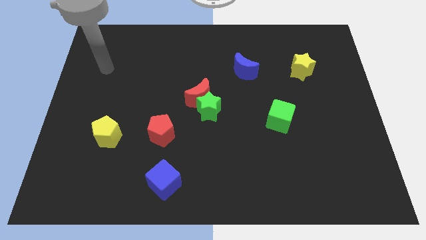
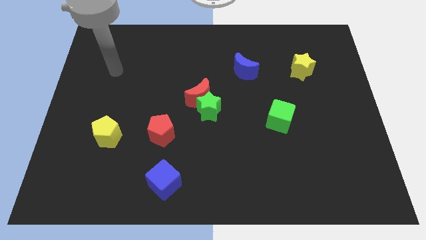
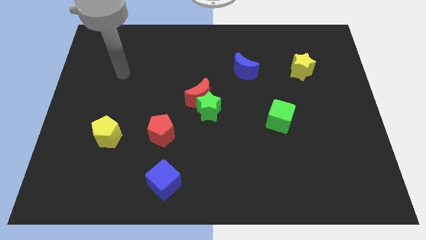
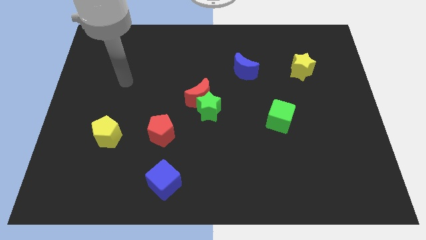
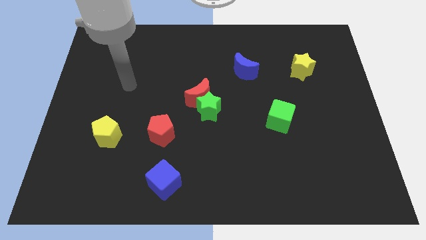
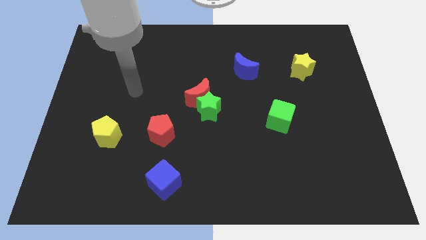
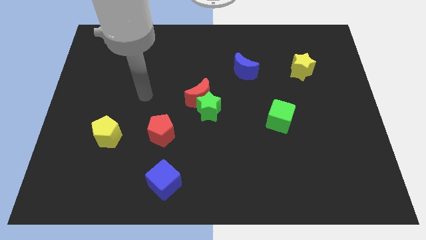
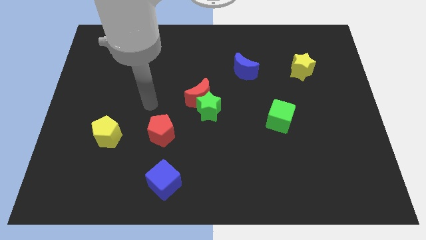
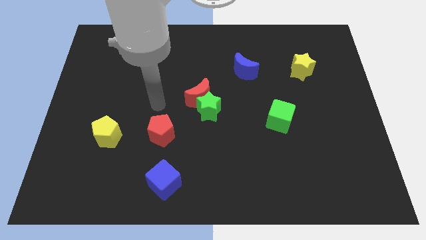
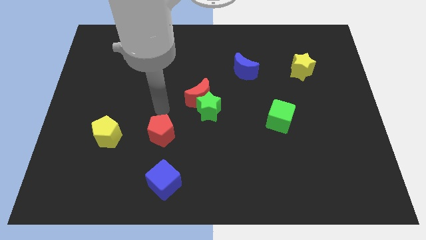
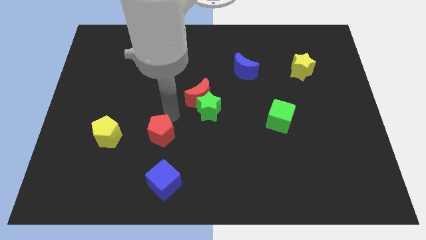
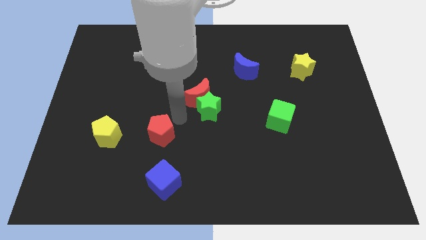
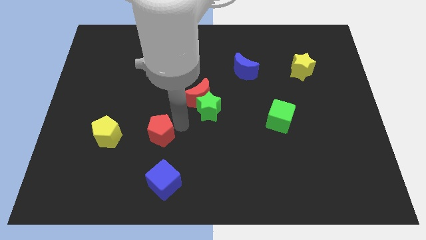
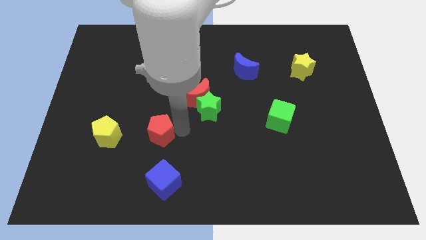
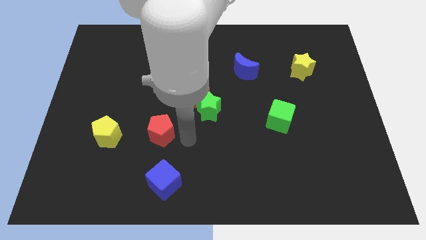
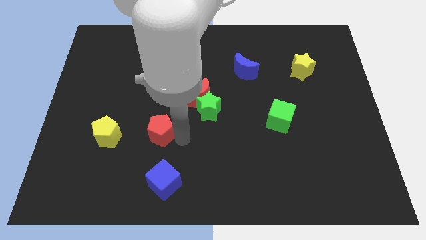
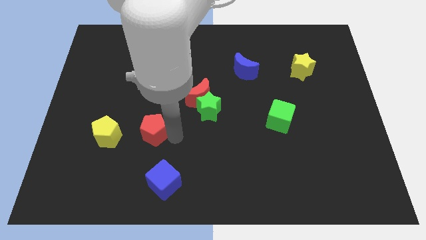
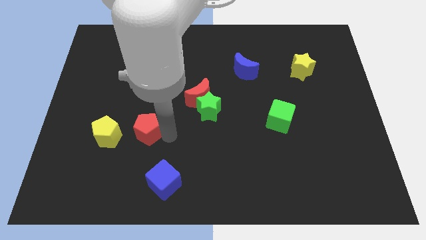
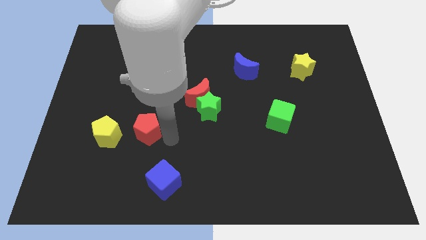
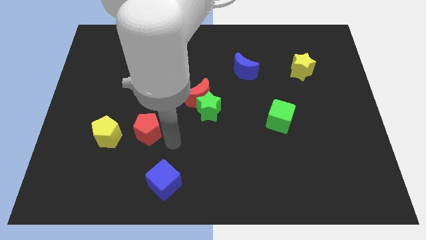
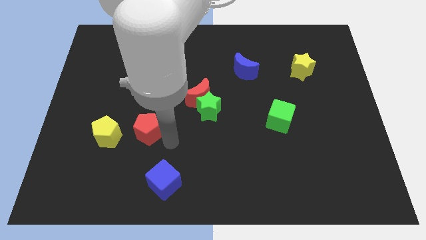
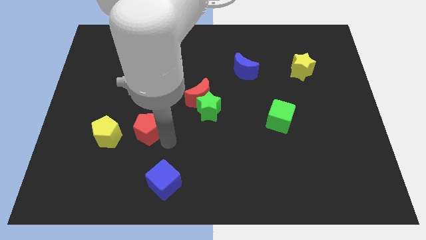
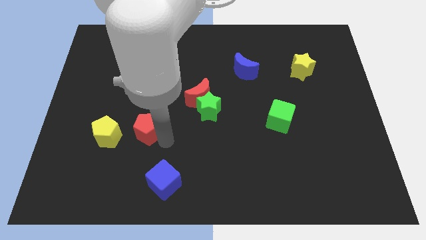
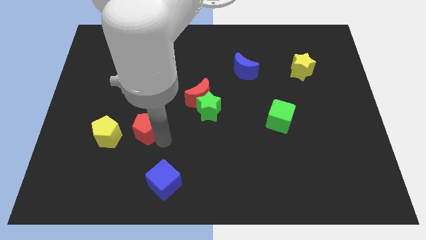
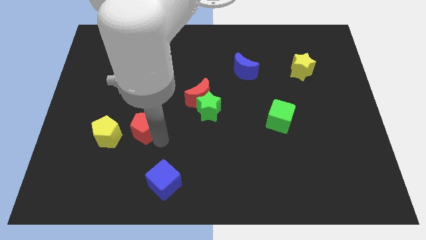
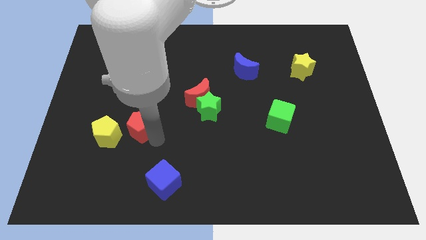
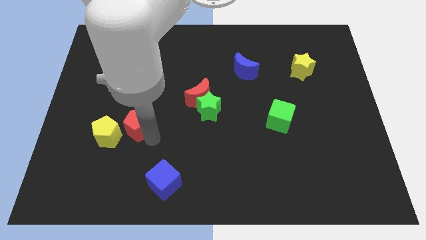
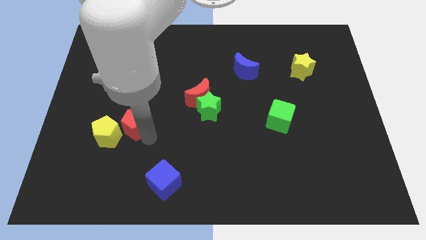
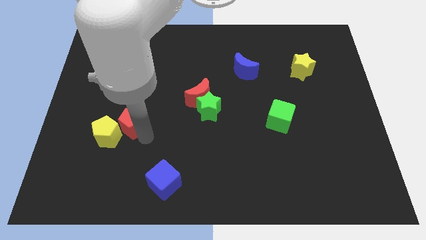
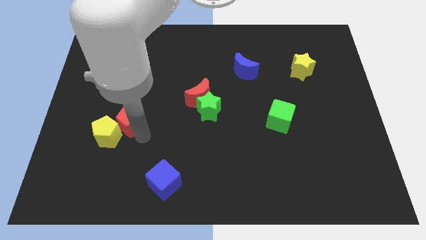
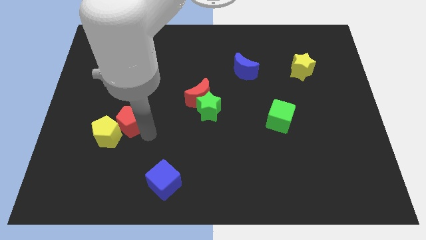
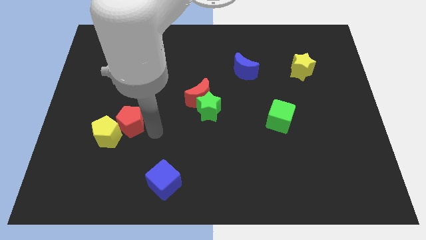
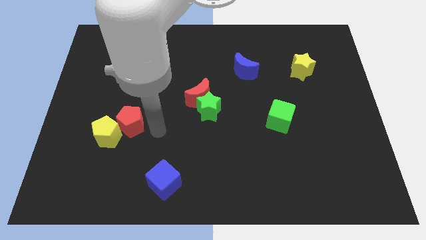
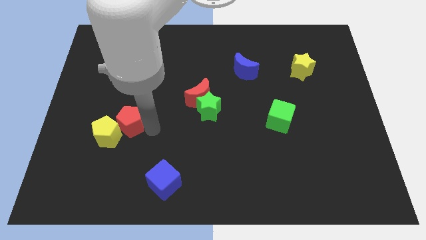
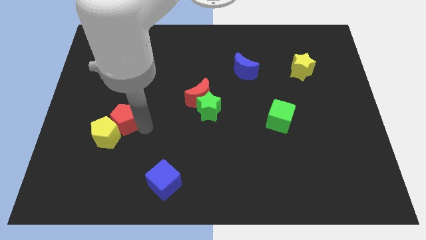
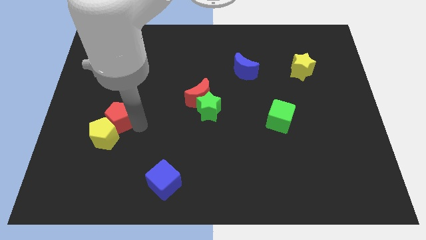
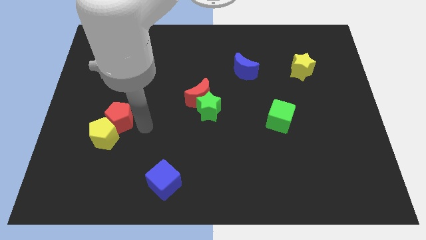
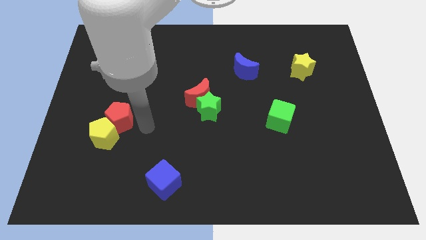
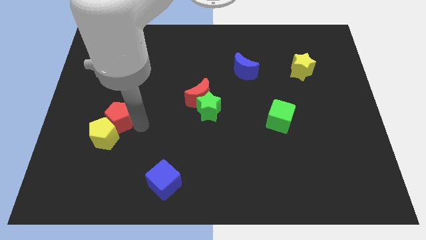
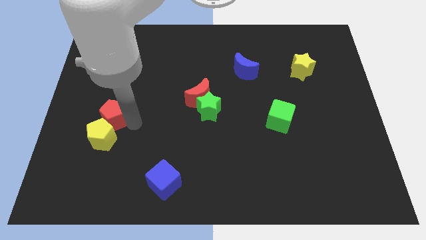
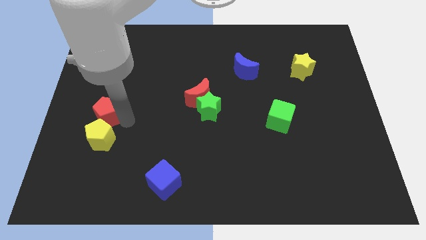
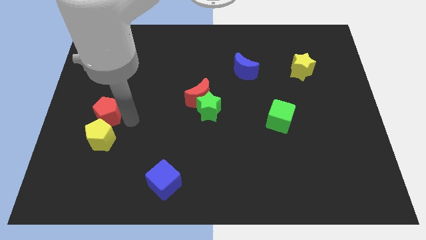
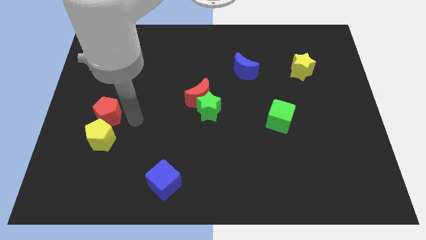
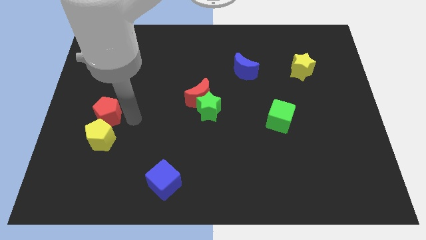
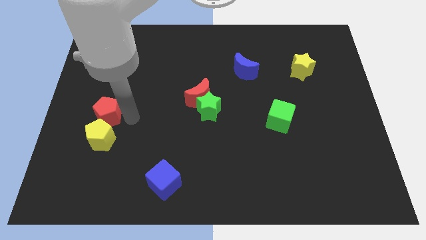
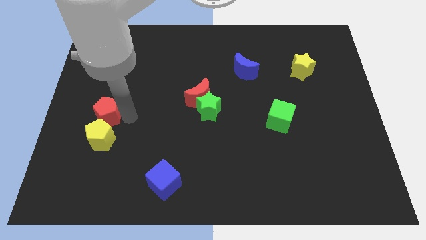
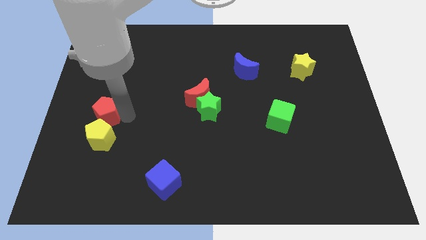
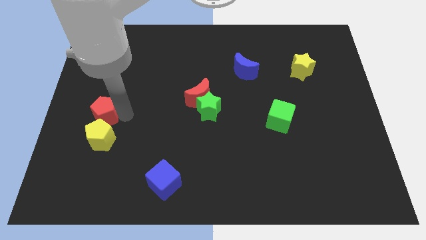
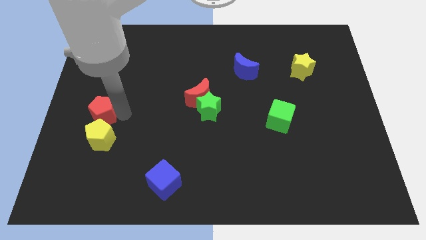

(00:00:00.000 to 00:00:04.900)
slide the red pentagon to the left side of the board

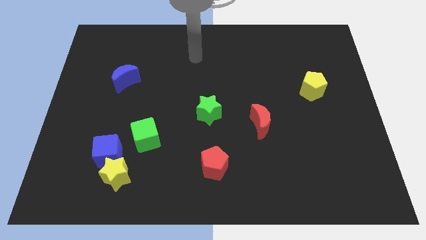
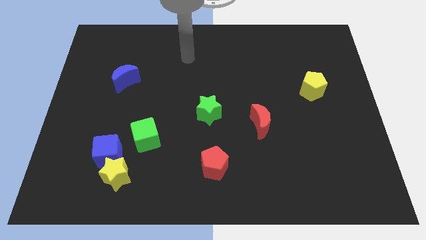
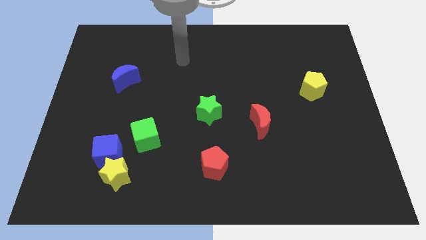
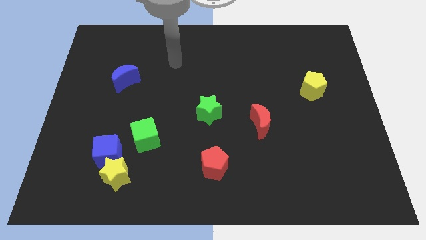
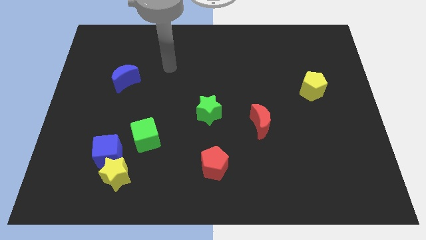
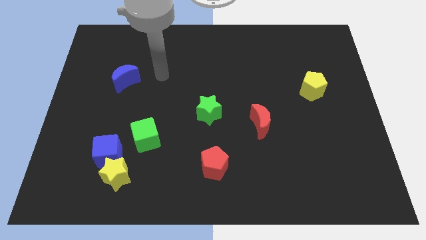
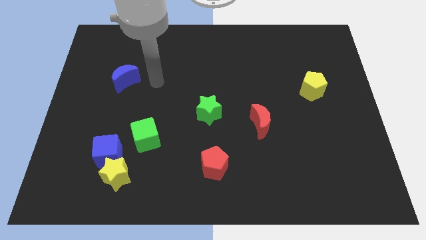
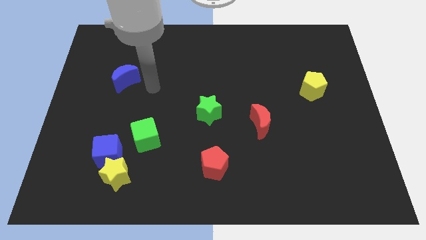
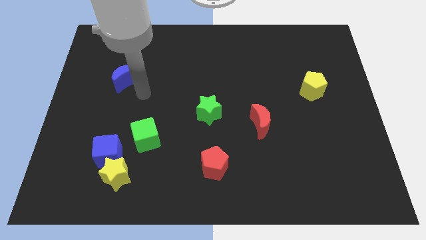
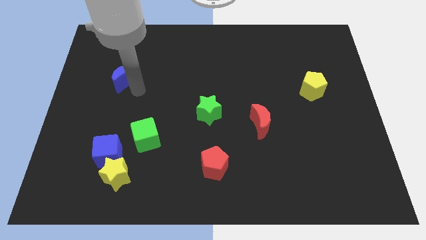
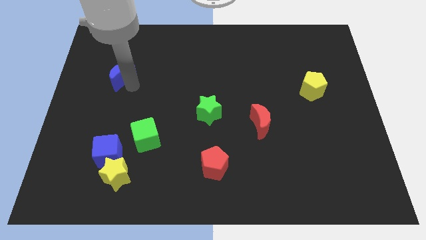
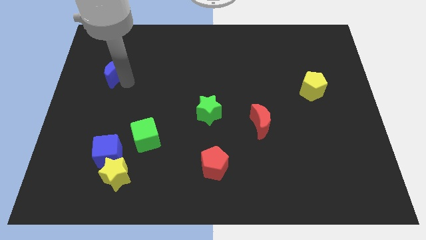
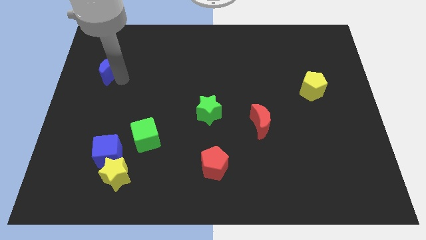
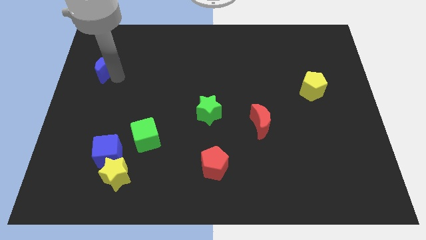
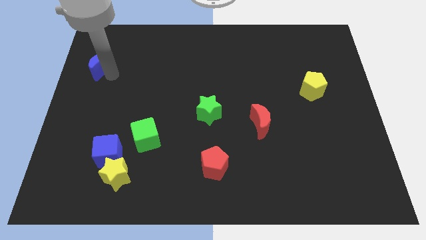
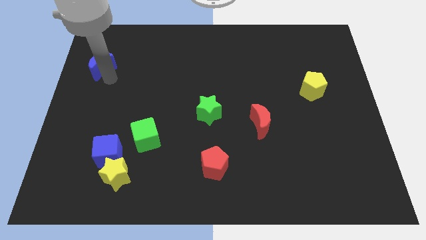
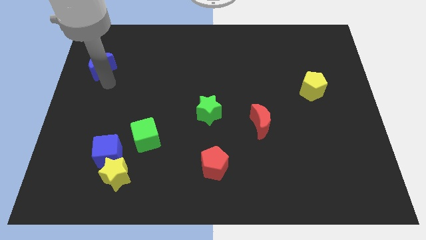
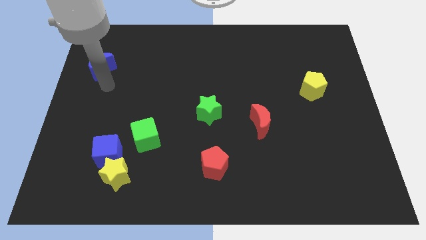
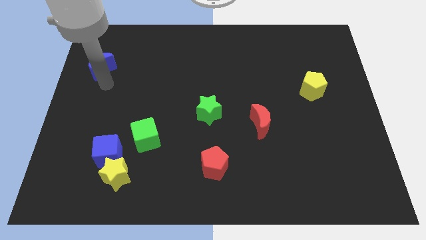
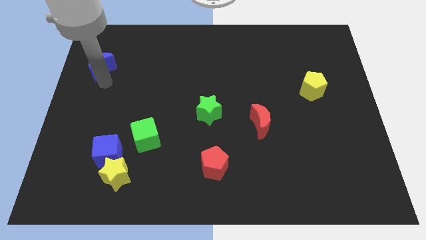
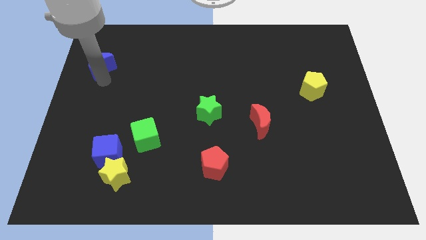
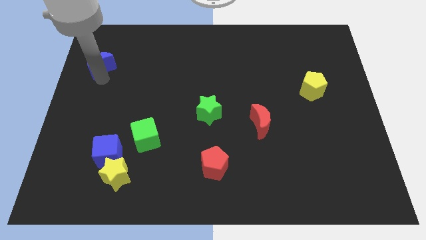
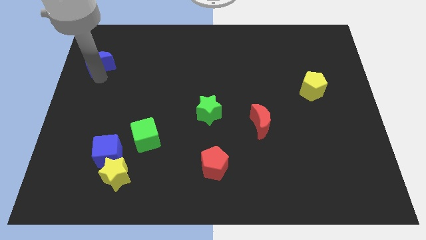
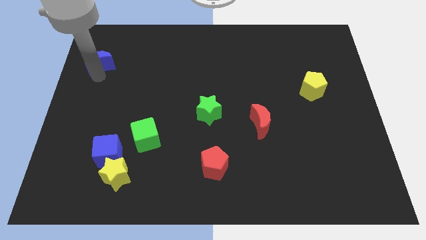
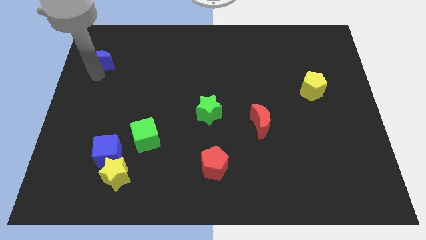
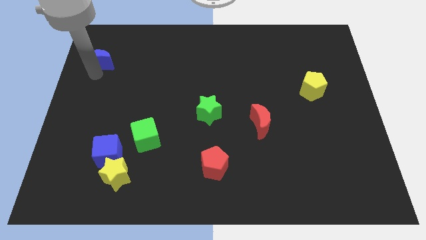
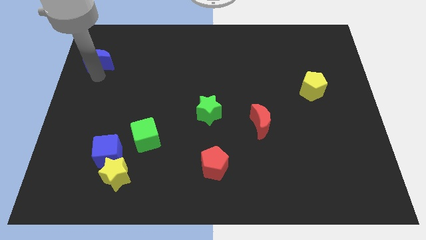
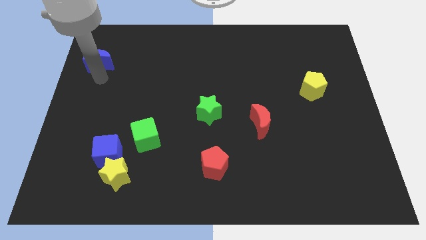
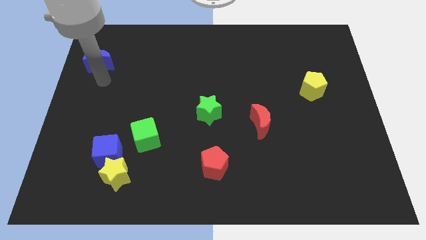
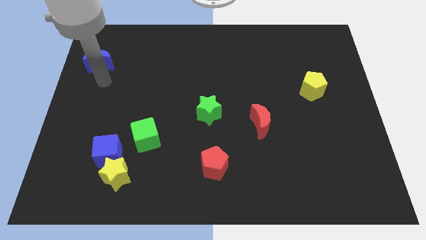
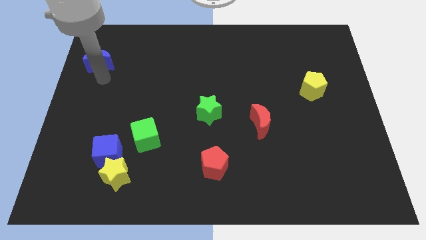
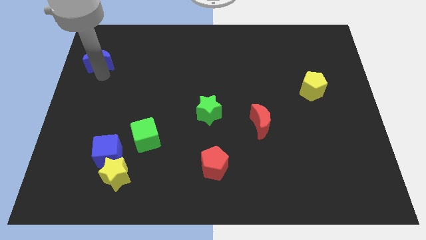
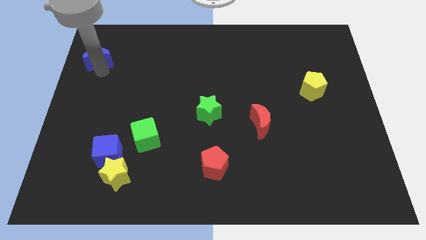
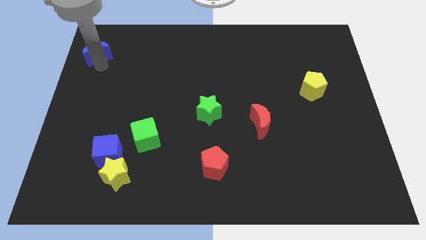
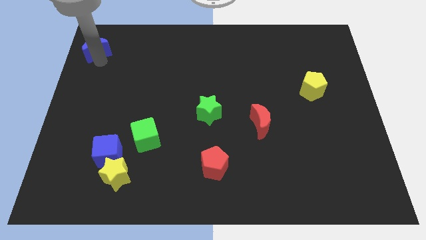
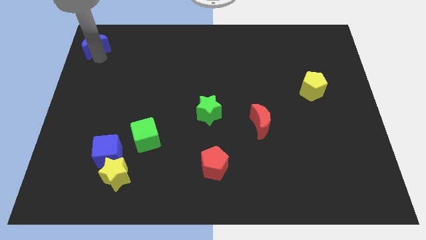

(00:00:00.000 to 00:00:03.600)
put the blue moon to the top left corner
